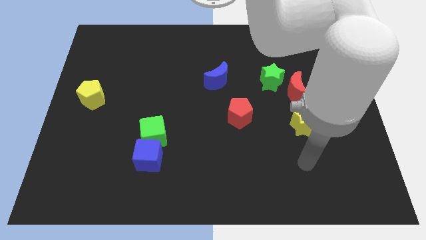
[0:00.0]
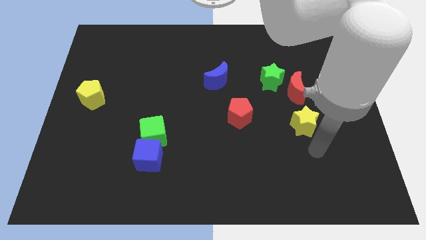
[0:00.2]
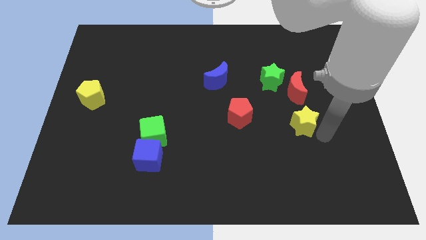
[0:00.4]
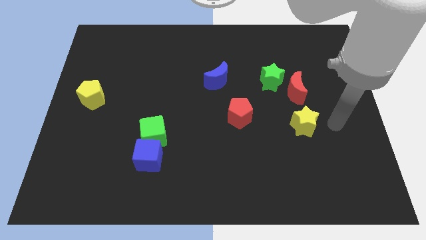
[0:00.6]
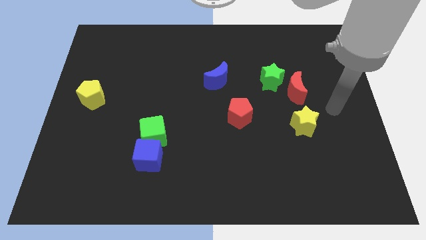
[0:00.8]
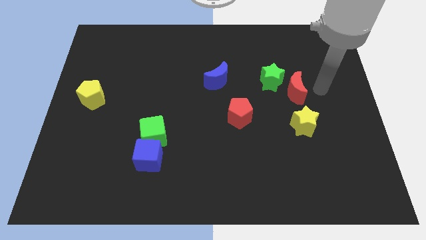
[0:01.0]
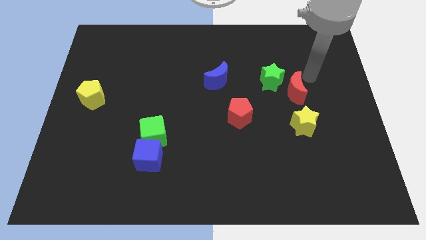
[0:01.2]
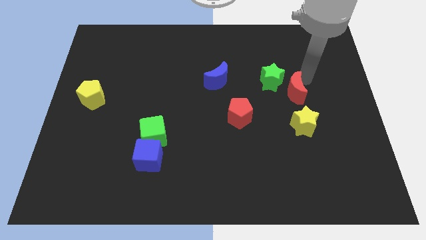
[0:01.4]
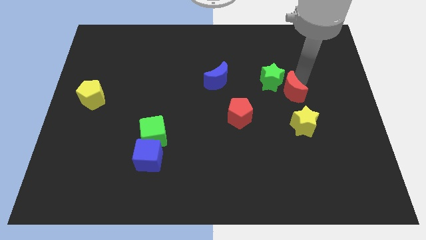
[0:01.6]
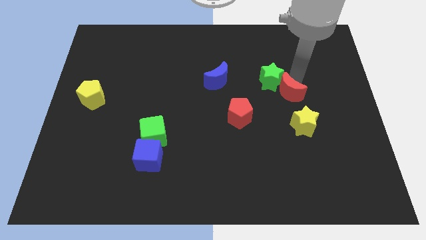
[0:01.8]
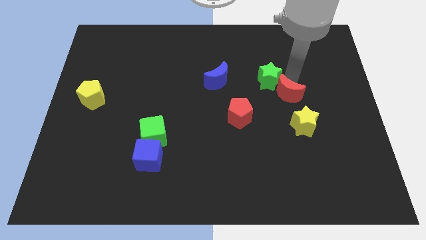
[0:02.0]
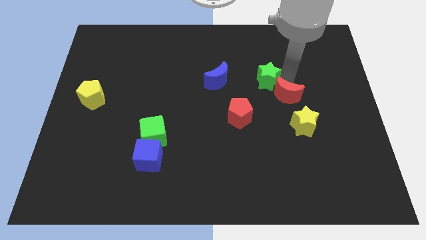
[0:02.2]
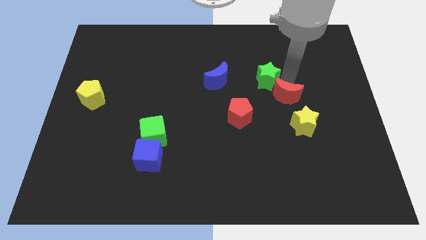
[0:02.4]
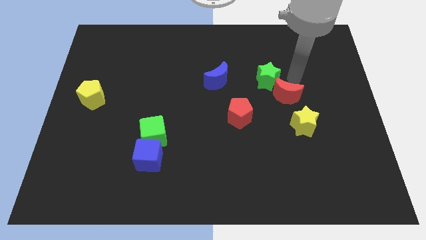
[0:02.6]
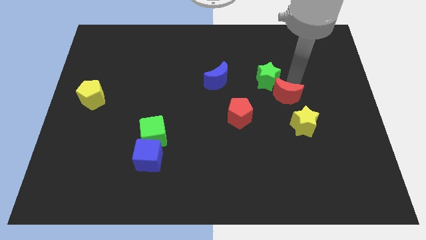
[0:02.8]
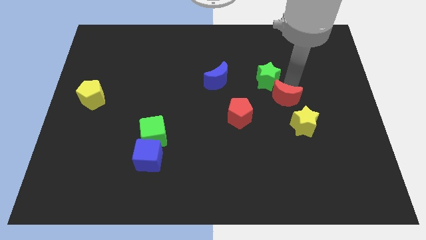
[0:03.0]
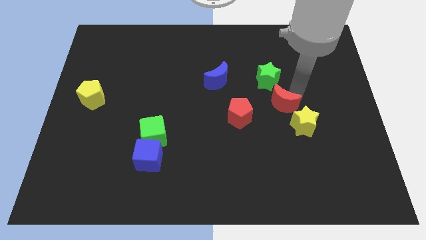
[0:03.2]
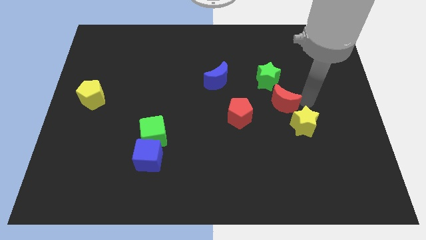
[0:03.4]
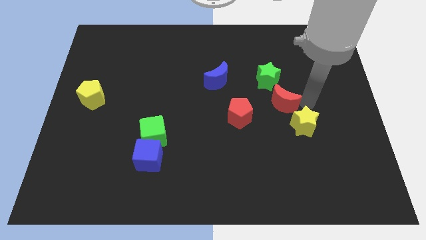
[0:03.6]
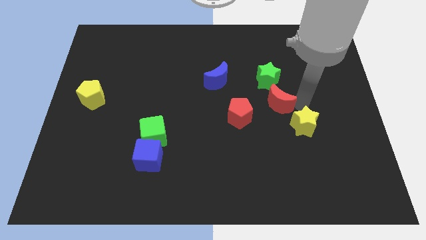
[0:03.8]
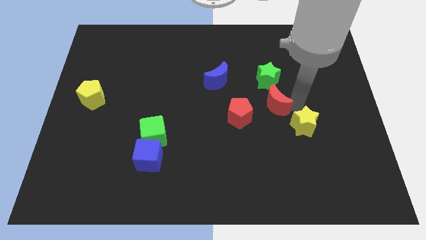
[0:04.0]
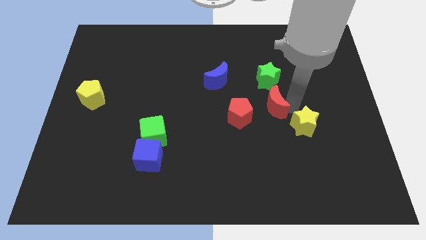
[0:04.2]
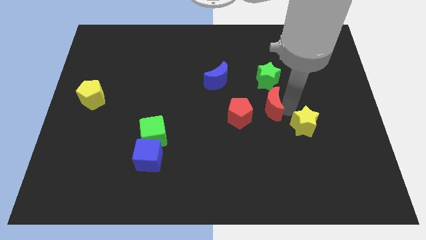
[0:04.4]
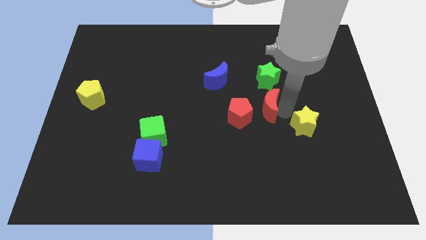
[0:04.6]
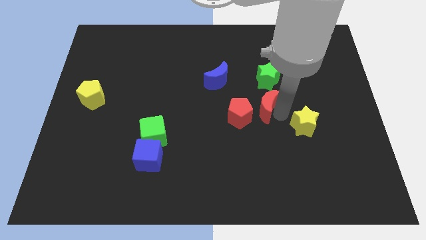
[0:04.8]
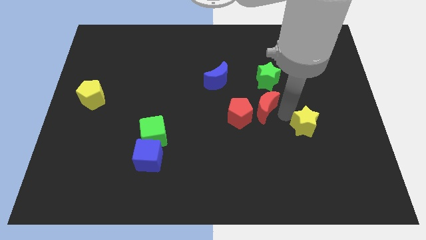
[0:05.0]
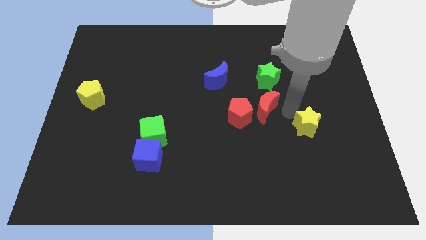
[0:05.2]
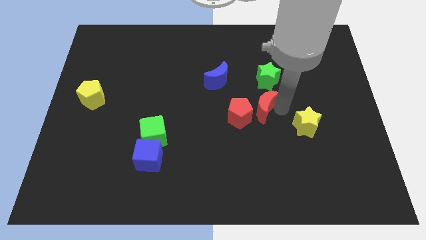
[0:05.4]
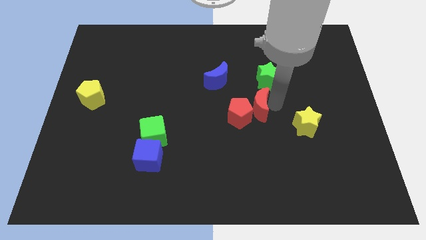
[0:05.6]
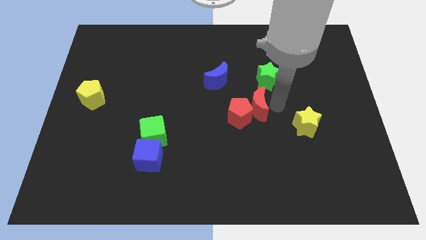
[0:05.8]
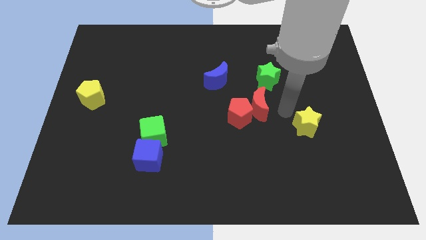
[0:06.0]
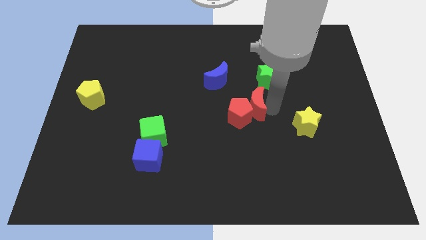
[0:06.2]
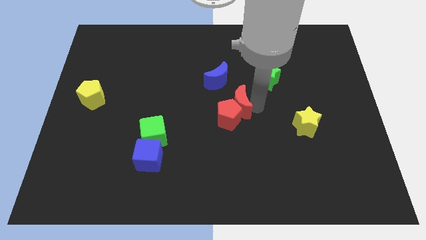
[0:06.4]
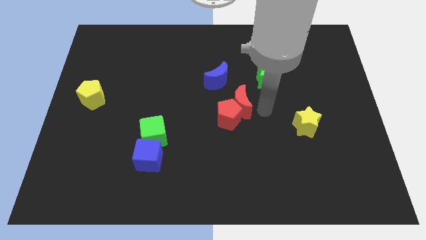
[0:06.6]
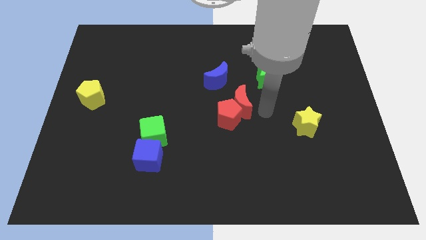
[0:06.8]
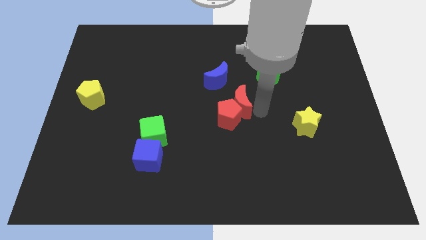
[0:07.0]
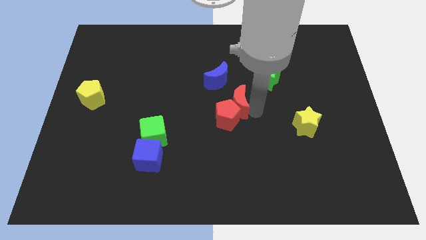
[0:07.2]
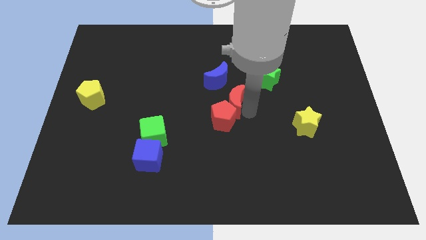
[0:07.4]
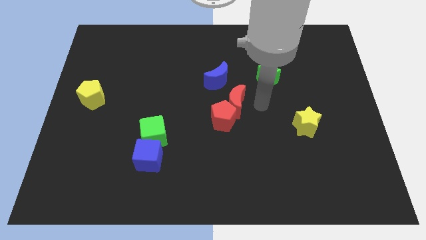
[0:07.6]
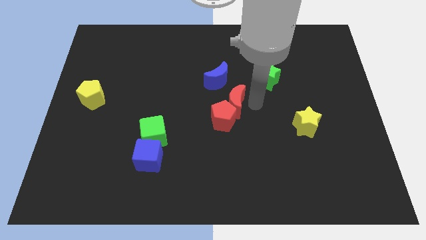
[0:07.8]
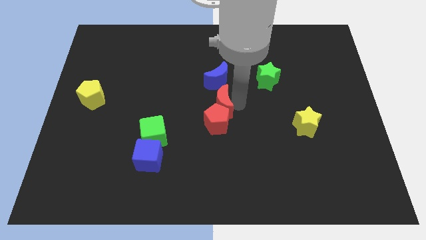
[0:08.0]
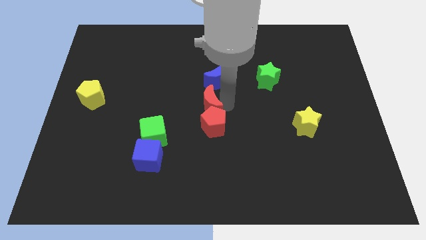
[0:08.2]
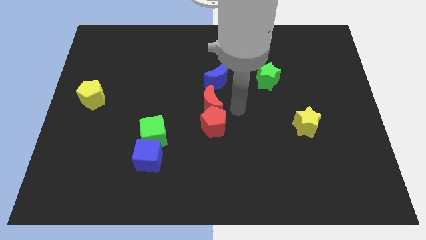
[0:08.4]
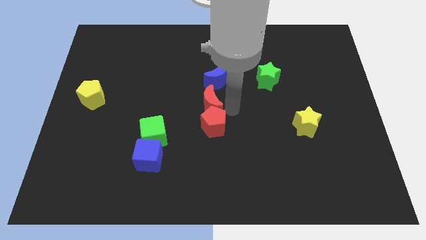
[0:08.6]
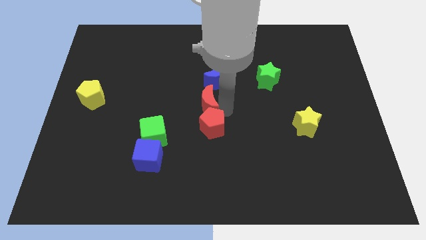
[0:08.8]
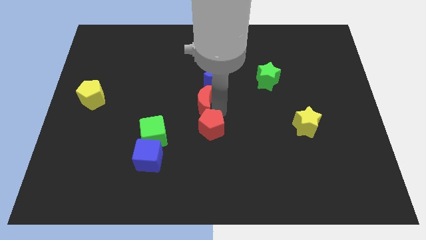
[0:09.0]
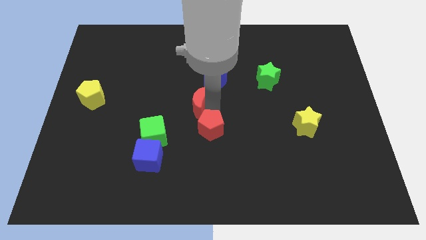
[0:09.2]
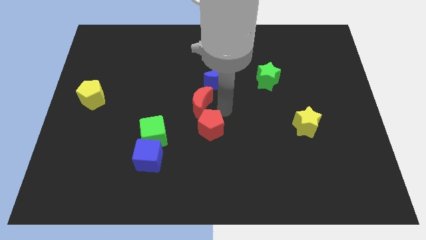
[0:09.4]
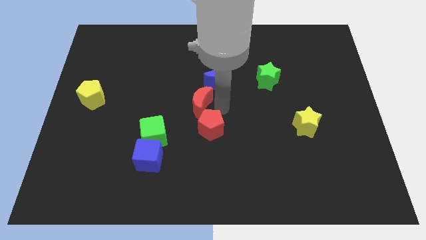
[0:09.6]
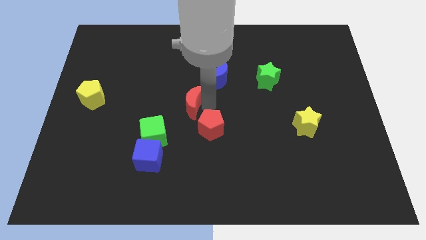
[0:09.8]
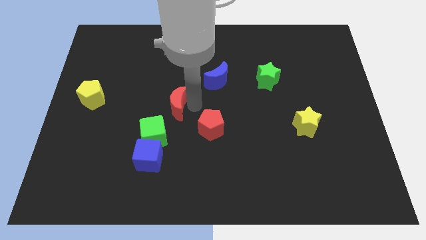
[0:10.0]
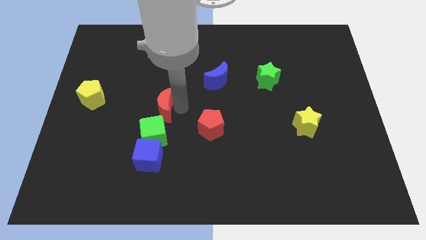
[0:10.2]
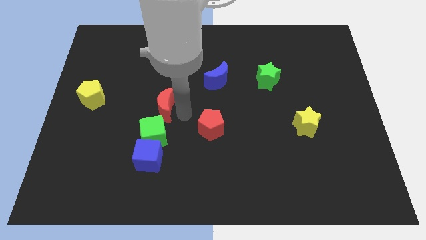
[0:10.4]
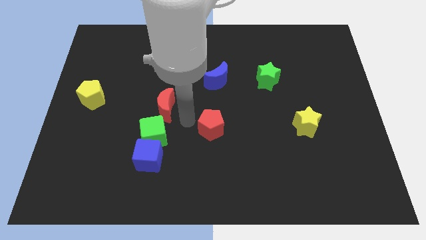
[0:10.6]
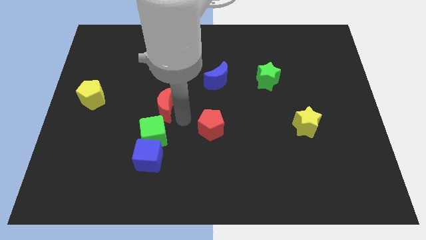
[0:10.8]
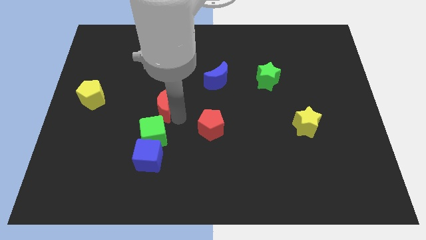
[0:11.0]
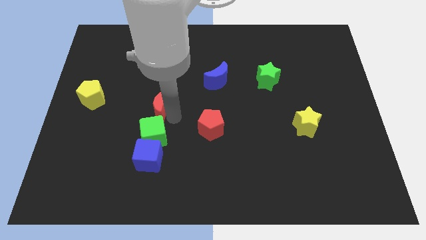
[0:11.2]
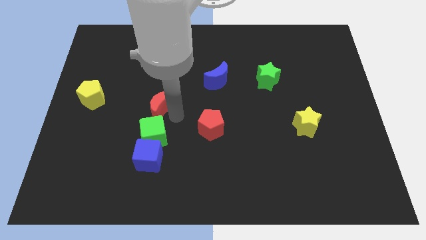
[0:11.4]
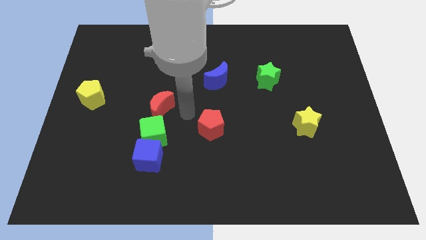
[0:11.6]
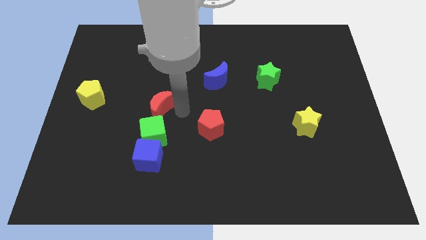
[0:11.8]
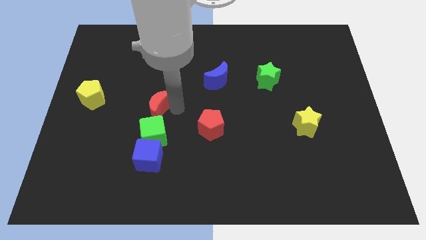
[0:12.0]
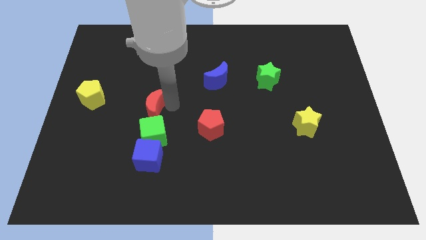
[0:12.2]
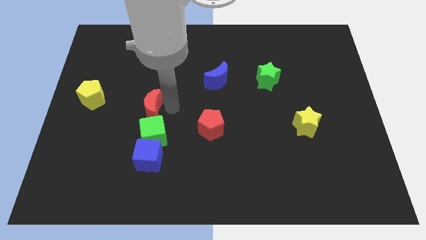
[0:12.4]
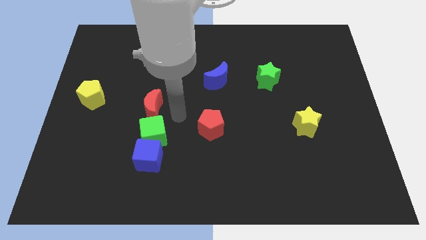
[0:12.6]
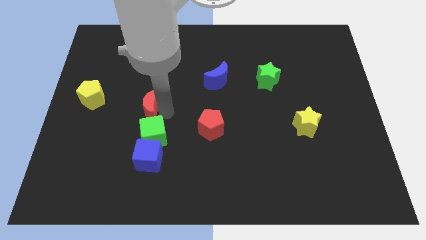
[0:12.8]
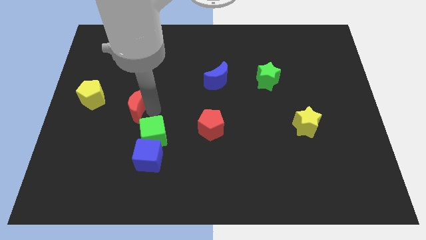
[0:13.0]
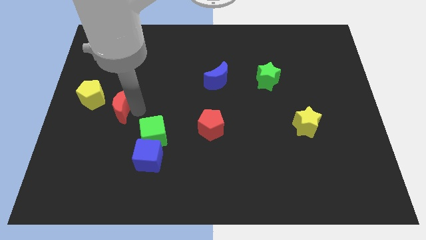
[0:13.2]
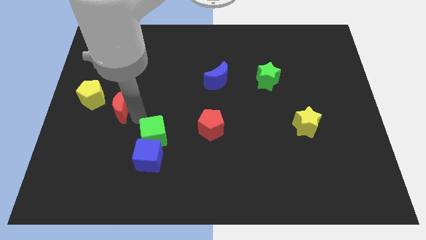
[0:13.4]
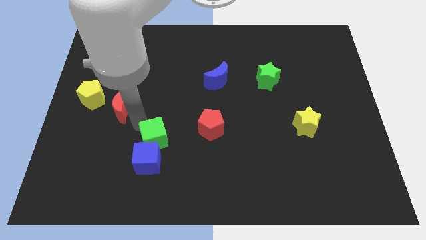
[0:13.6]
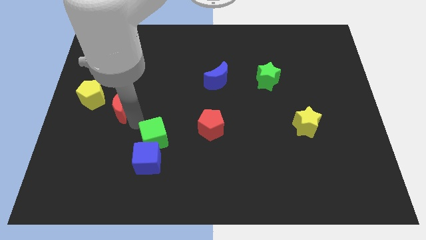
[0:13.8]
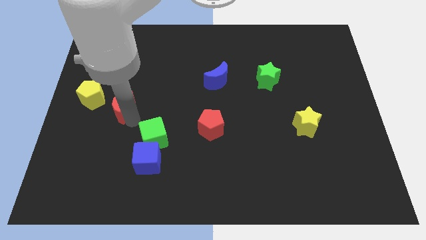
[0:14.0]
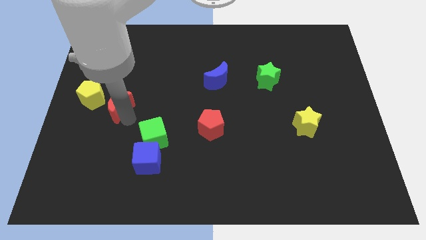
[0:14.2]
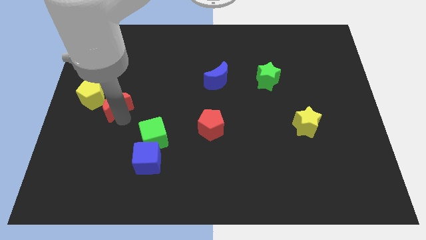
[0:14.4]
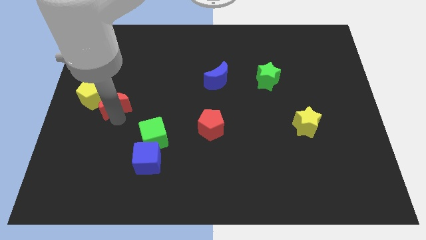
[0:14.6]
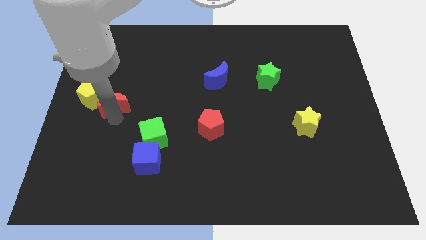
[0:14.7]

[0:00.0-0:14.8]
move the red moon to the yellow pentagon
